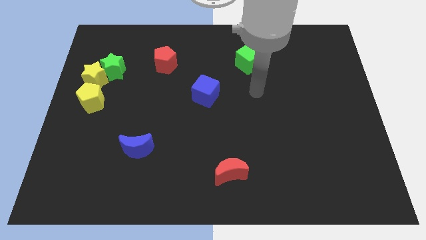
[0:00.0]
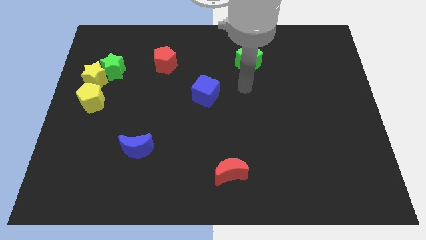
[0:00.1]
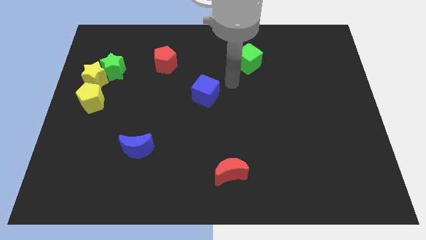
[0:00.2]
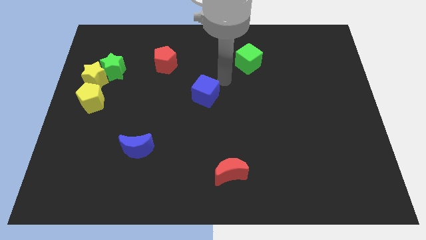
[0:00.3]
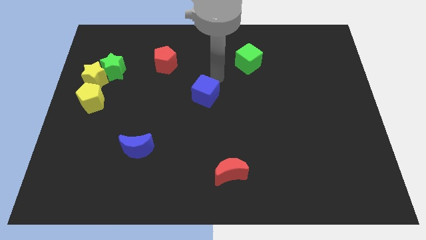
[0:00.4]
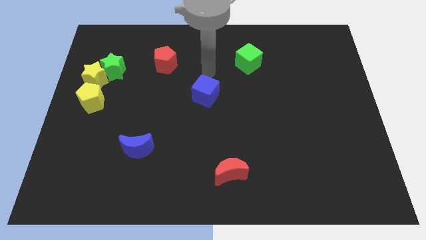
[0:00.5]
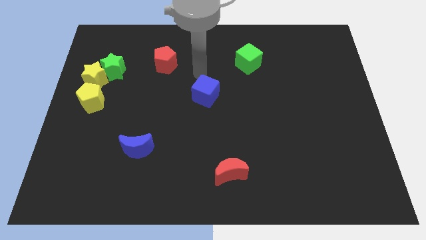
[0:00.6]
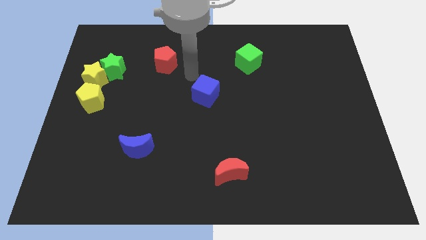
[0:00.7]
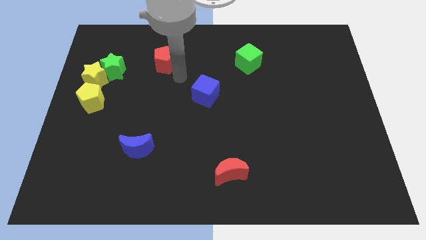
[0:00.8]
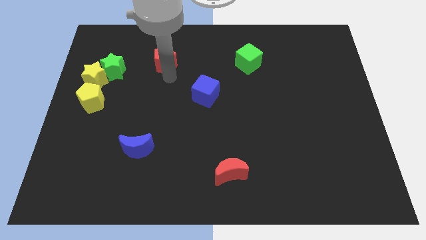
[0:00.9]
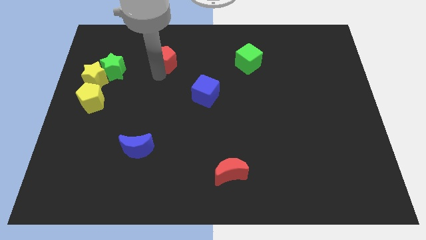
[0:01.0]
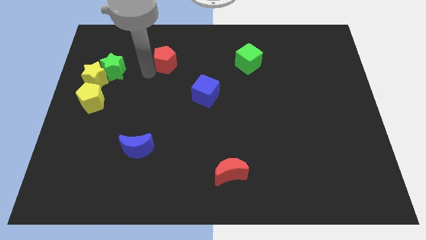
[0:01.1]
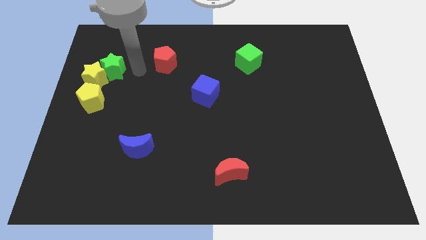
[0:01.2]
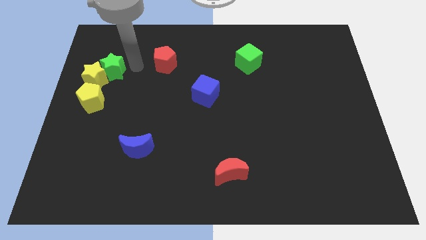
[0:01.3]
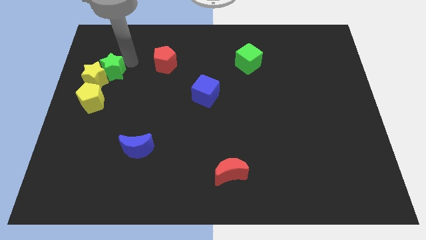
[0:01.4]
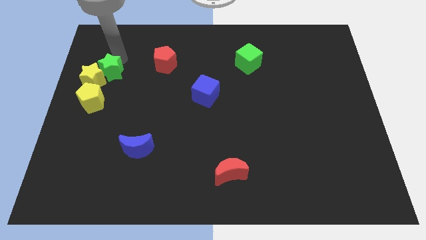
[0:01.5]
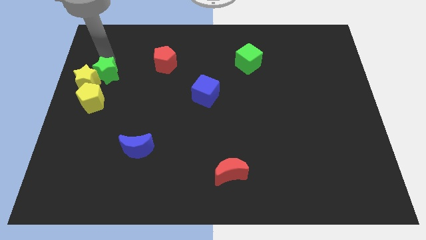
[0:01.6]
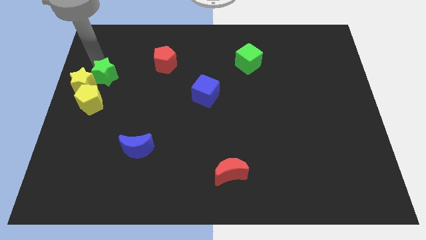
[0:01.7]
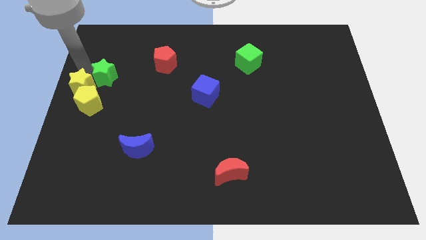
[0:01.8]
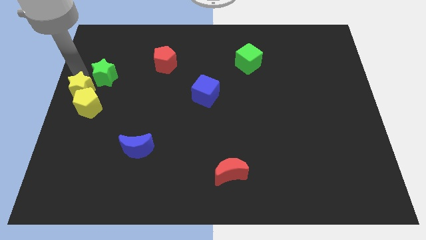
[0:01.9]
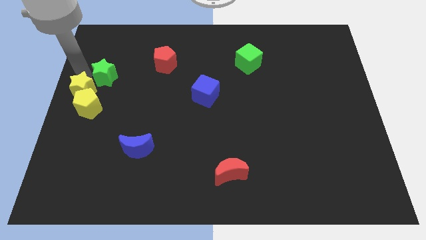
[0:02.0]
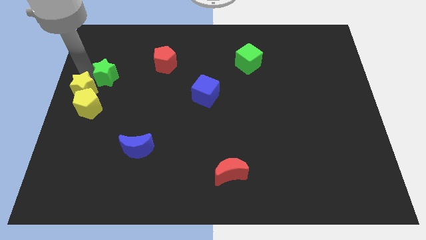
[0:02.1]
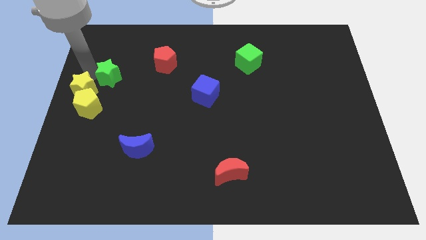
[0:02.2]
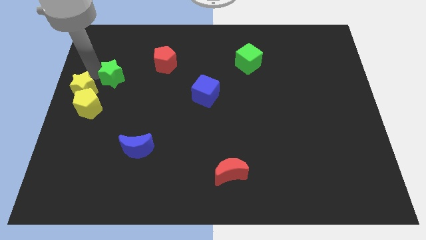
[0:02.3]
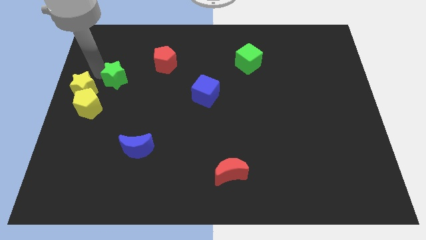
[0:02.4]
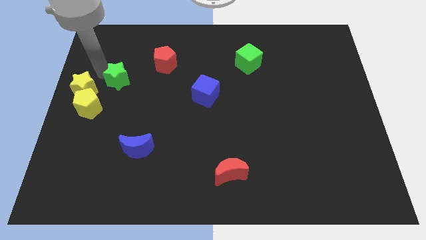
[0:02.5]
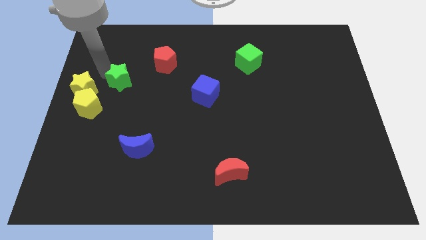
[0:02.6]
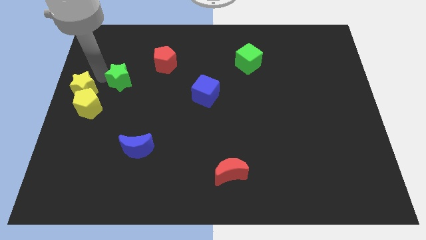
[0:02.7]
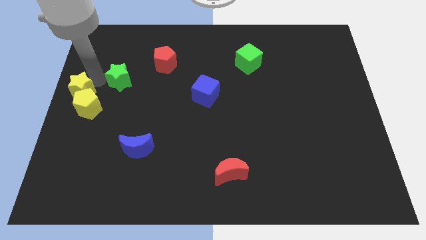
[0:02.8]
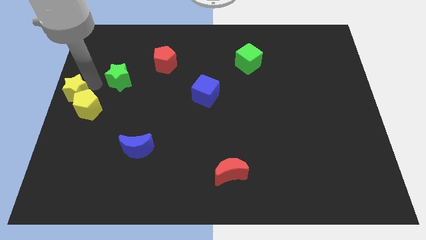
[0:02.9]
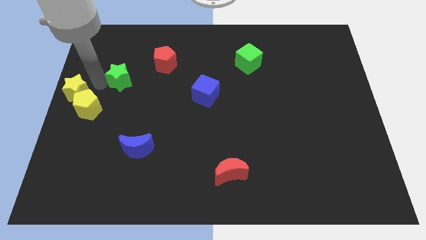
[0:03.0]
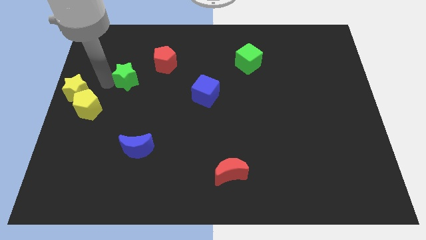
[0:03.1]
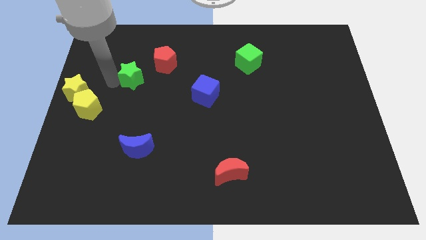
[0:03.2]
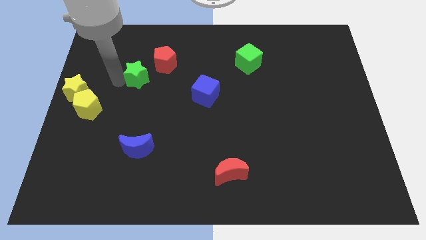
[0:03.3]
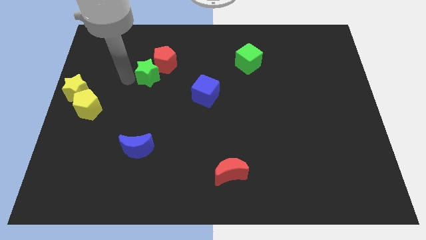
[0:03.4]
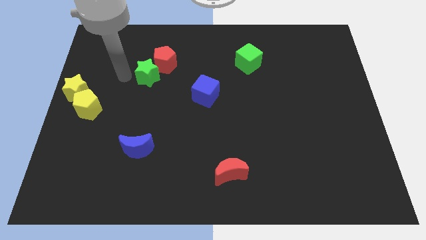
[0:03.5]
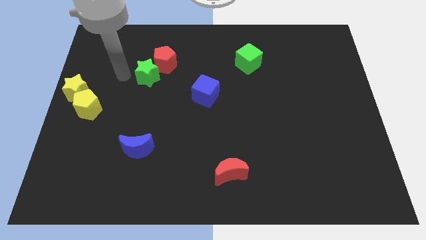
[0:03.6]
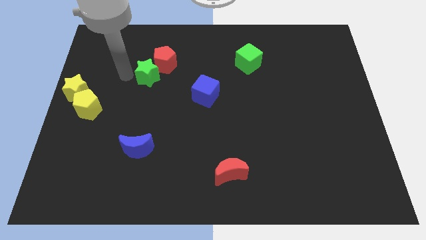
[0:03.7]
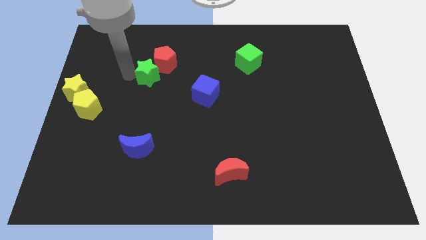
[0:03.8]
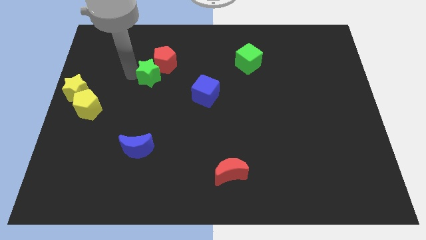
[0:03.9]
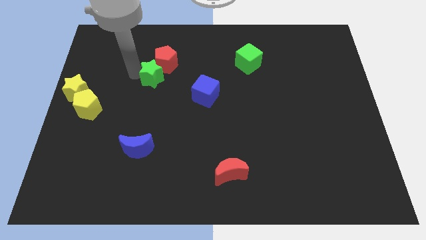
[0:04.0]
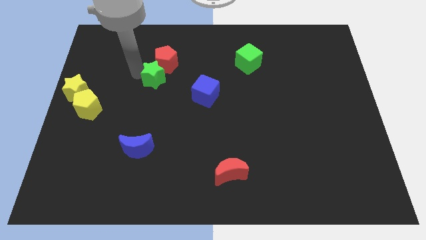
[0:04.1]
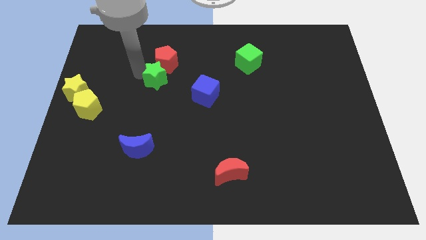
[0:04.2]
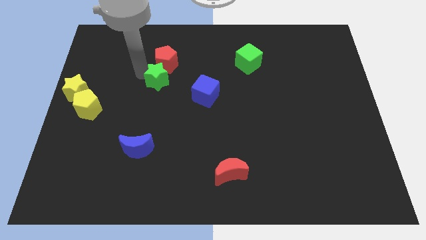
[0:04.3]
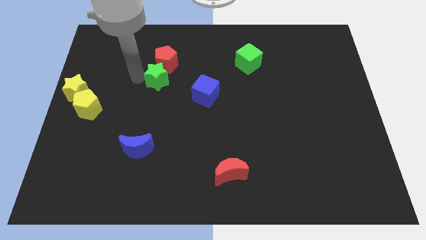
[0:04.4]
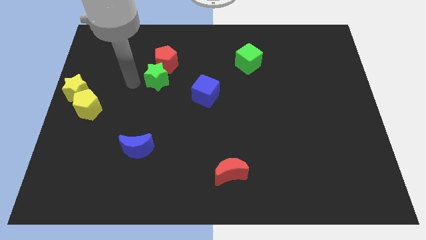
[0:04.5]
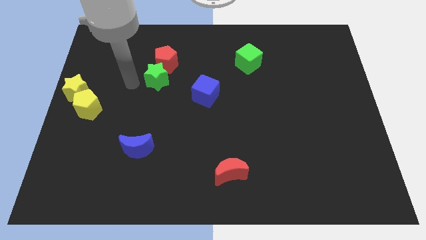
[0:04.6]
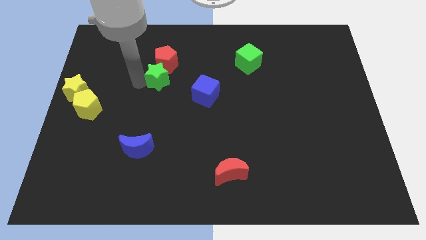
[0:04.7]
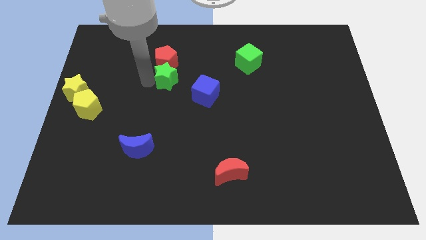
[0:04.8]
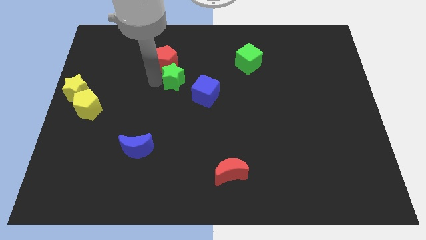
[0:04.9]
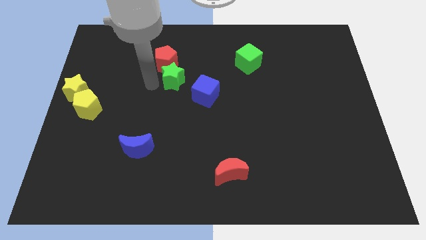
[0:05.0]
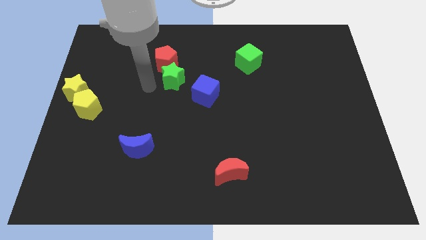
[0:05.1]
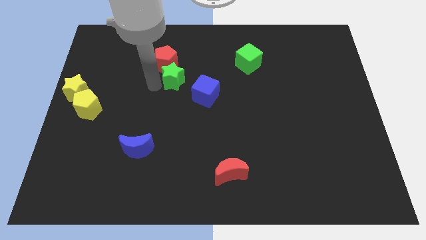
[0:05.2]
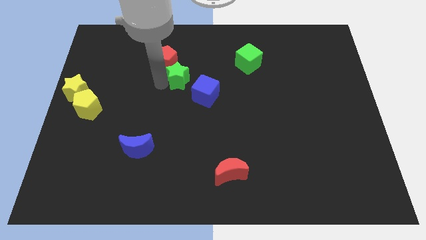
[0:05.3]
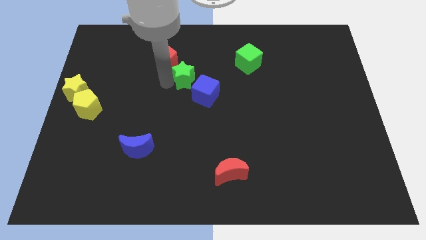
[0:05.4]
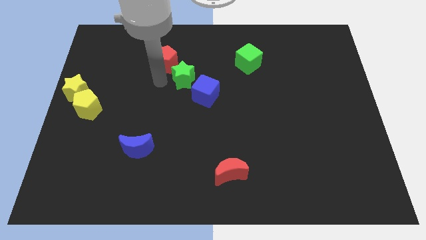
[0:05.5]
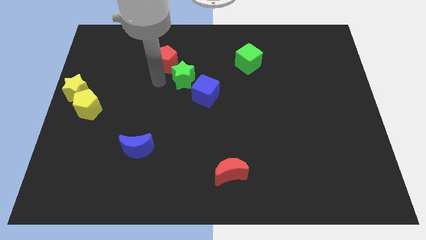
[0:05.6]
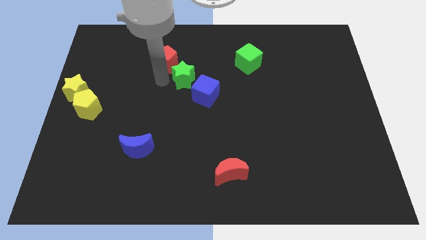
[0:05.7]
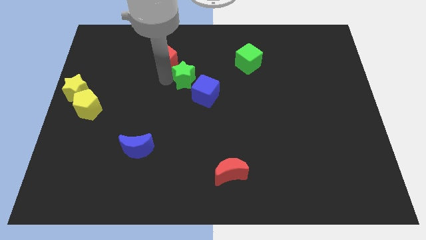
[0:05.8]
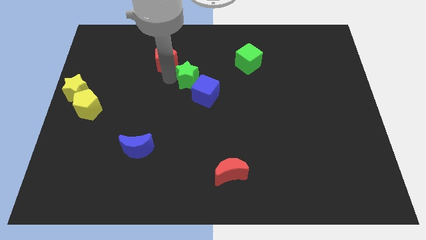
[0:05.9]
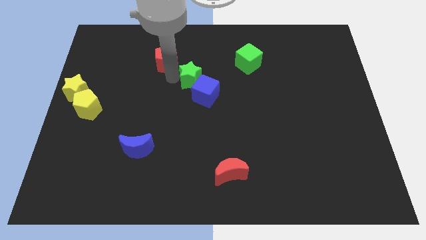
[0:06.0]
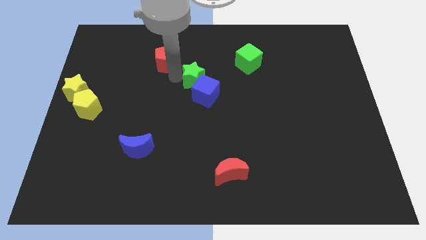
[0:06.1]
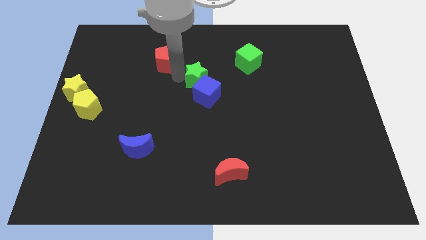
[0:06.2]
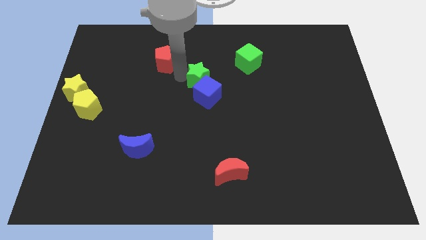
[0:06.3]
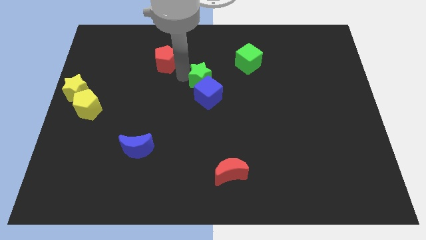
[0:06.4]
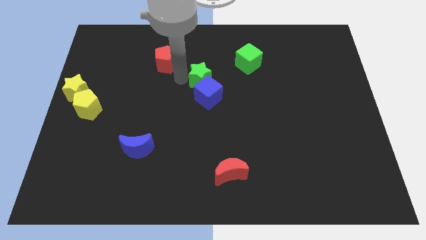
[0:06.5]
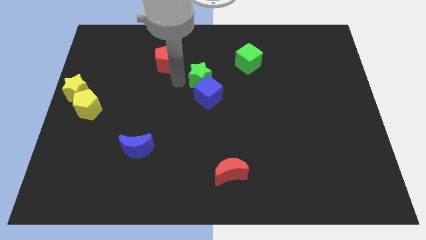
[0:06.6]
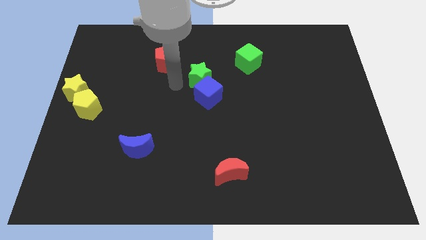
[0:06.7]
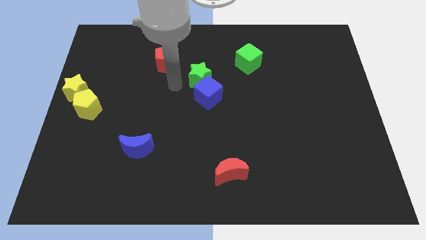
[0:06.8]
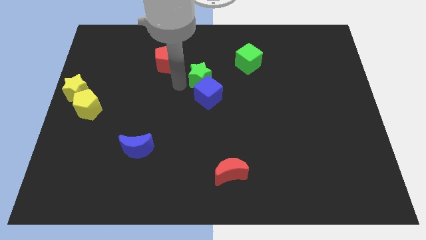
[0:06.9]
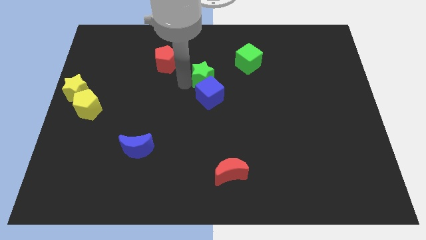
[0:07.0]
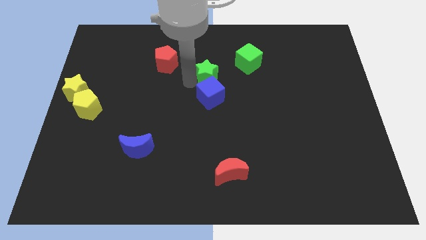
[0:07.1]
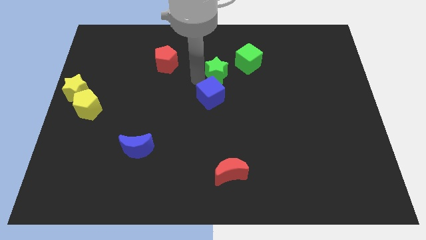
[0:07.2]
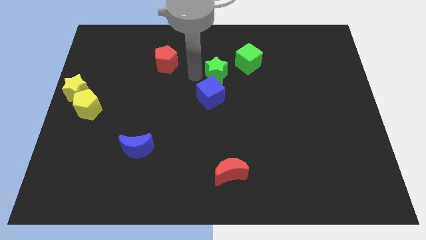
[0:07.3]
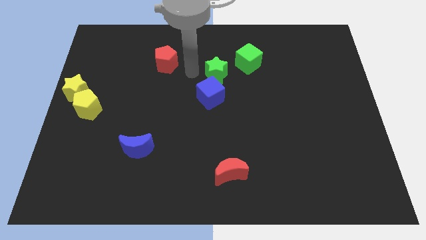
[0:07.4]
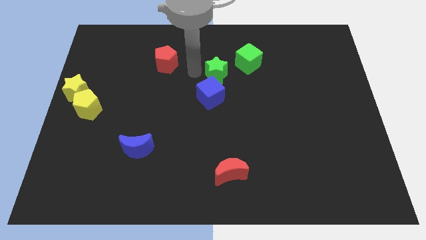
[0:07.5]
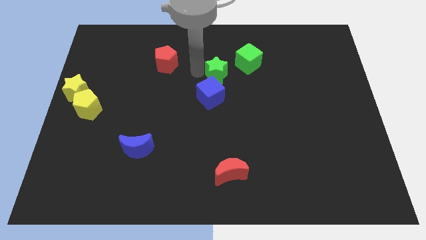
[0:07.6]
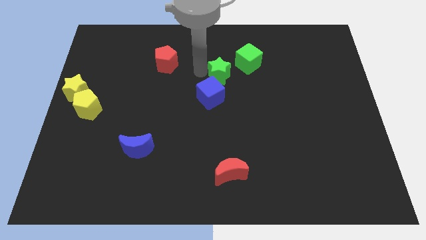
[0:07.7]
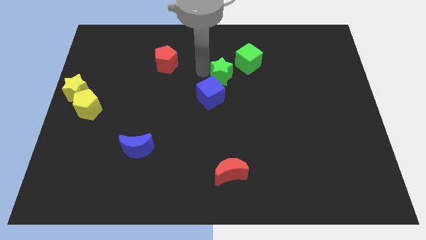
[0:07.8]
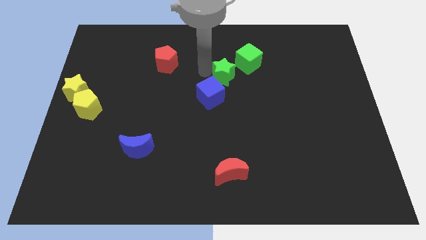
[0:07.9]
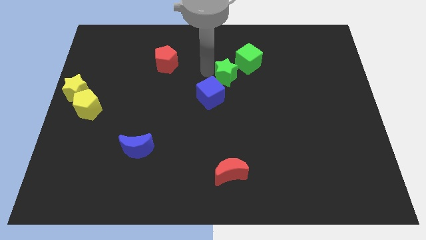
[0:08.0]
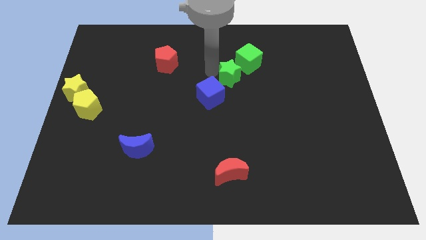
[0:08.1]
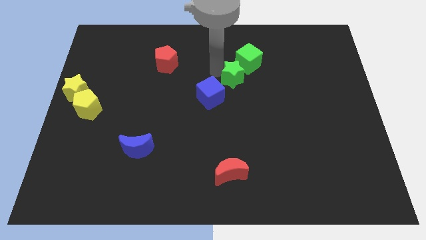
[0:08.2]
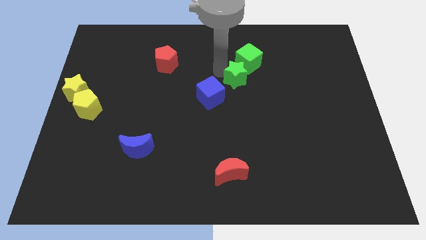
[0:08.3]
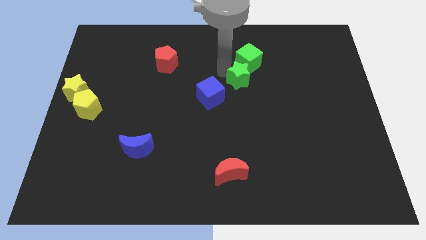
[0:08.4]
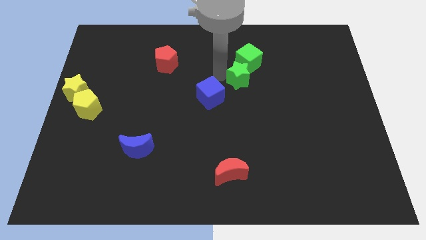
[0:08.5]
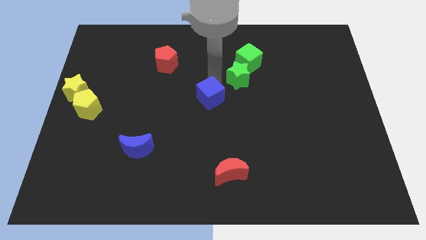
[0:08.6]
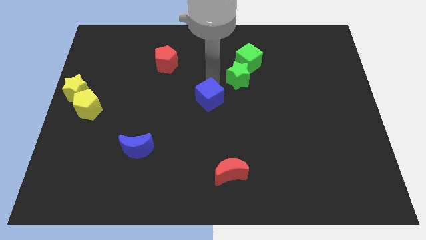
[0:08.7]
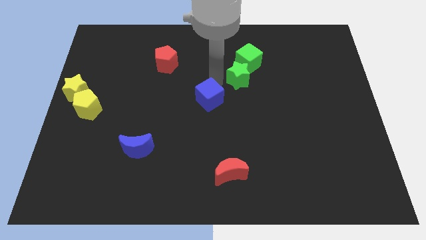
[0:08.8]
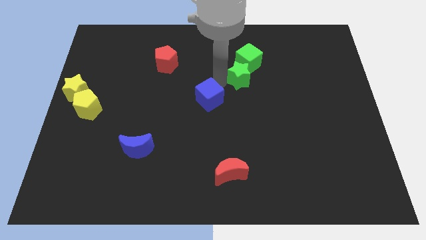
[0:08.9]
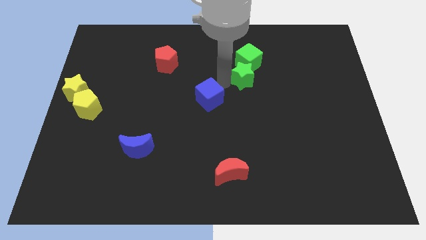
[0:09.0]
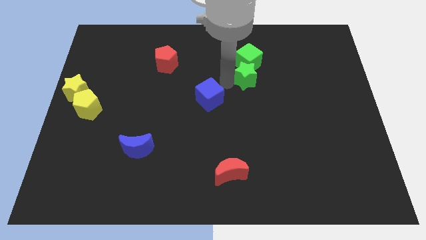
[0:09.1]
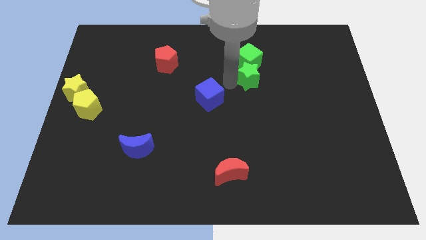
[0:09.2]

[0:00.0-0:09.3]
put the green star to the bottom right side of the green cube
